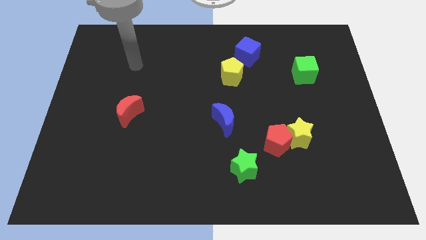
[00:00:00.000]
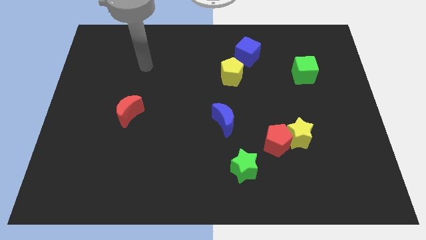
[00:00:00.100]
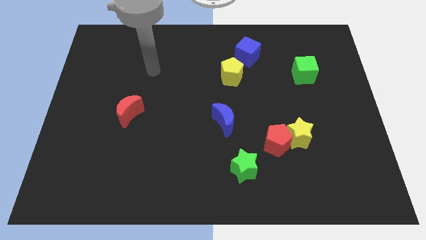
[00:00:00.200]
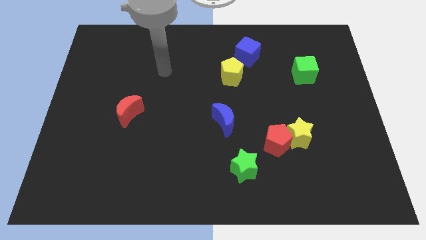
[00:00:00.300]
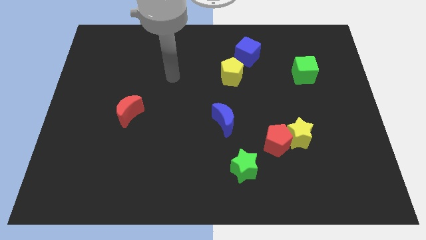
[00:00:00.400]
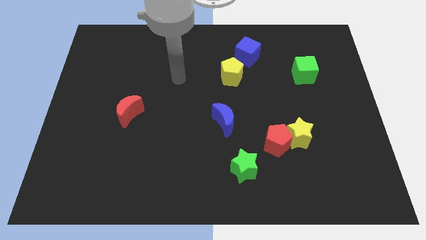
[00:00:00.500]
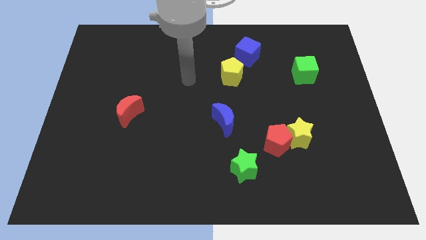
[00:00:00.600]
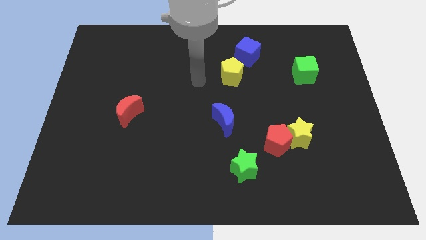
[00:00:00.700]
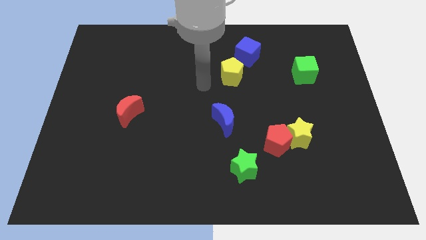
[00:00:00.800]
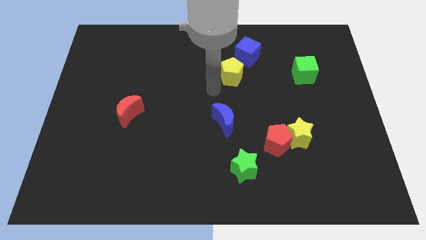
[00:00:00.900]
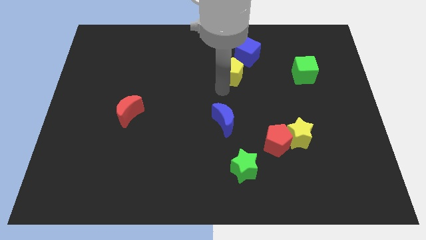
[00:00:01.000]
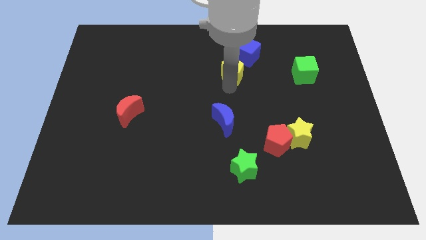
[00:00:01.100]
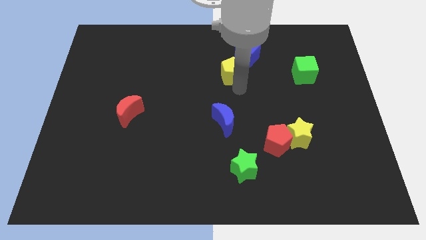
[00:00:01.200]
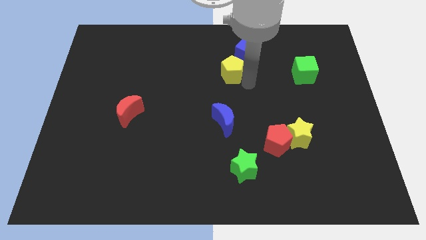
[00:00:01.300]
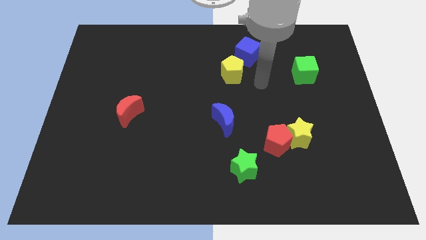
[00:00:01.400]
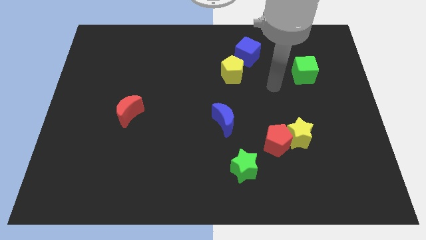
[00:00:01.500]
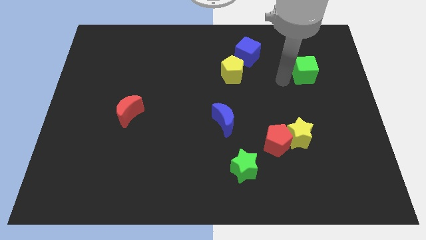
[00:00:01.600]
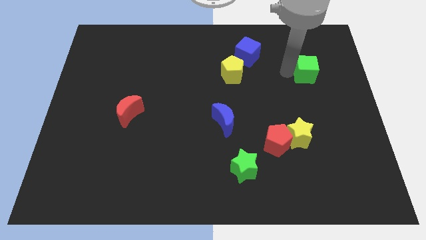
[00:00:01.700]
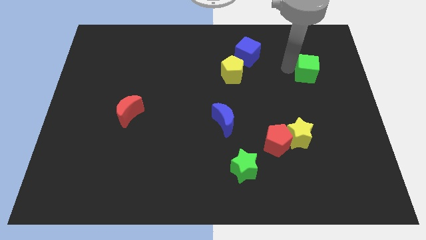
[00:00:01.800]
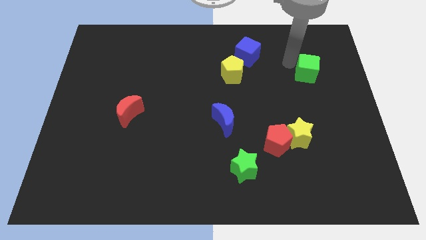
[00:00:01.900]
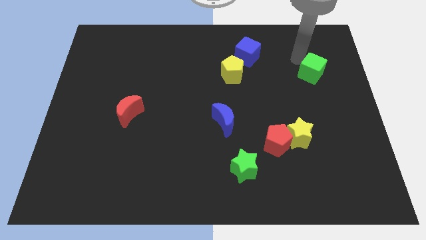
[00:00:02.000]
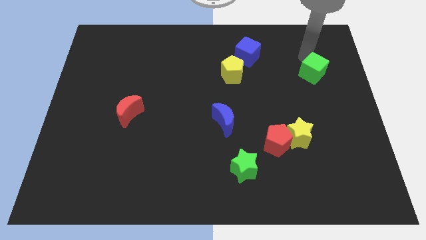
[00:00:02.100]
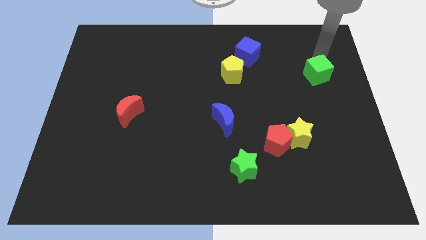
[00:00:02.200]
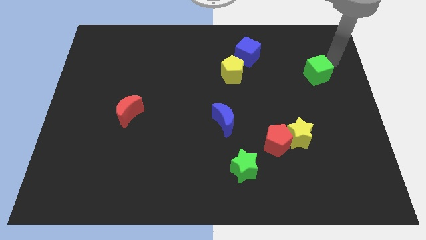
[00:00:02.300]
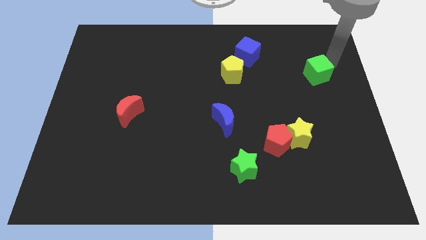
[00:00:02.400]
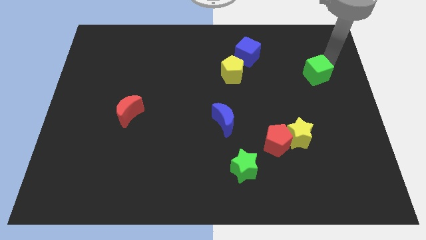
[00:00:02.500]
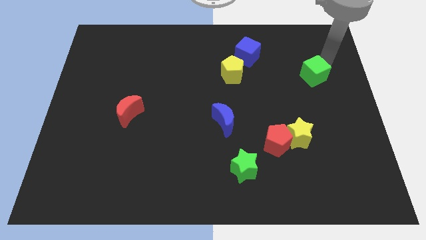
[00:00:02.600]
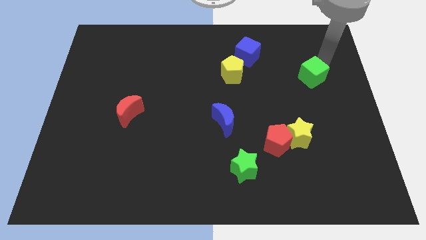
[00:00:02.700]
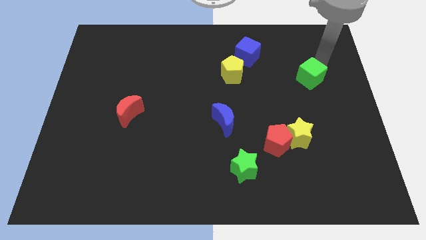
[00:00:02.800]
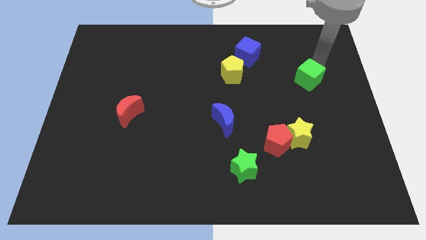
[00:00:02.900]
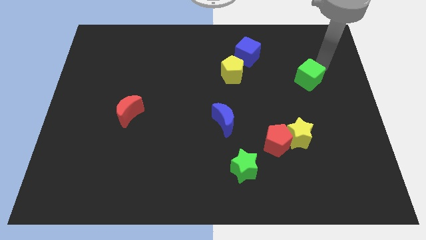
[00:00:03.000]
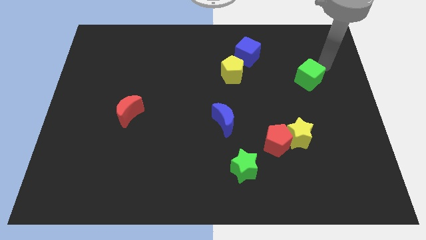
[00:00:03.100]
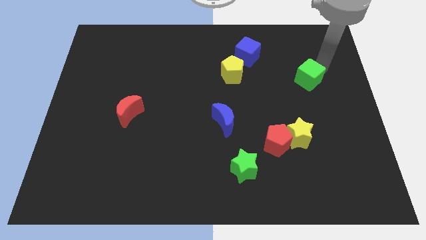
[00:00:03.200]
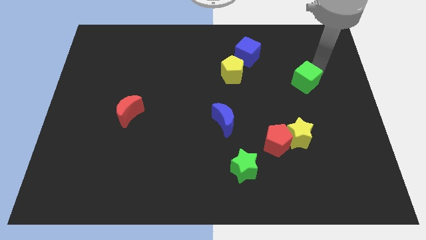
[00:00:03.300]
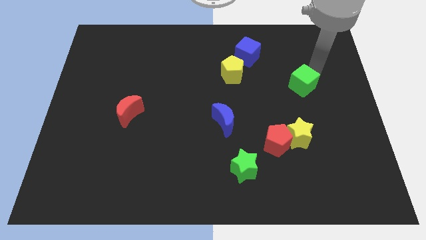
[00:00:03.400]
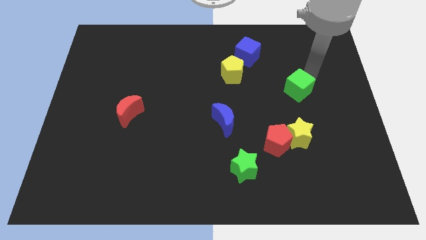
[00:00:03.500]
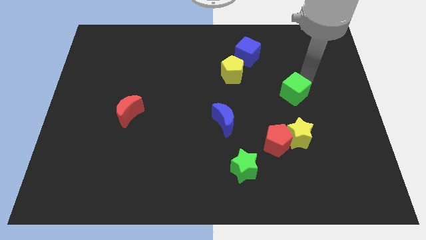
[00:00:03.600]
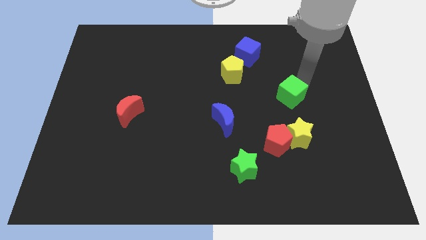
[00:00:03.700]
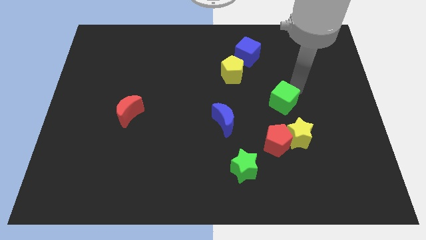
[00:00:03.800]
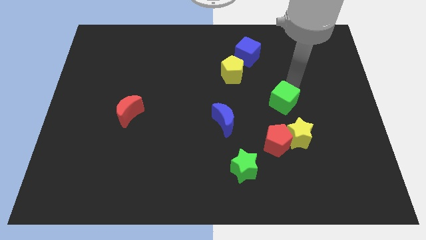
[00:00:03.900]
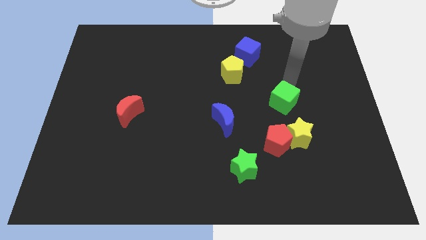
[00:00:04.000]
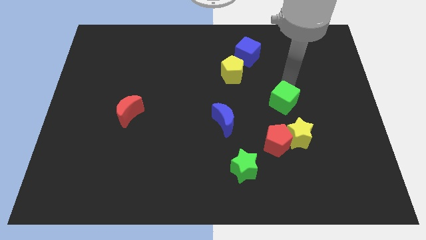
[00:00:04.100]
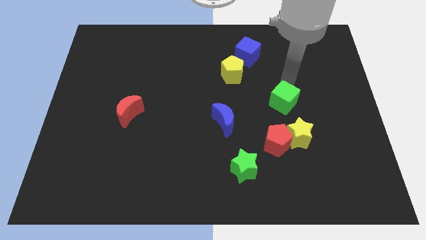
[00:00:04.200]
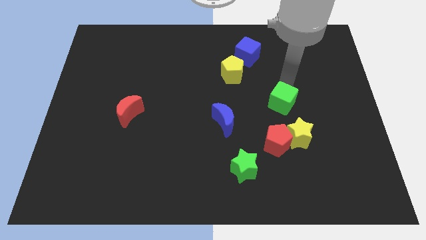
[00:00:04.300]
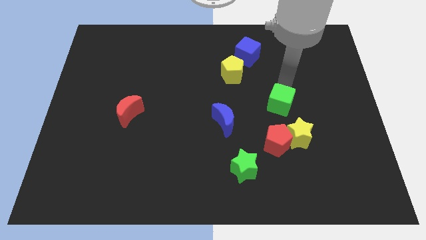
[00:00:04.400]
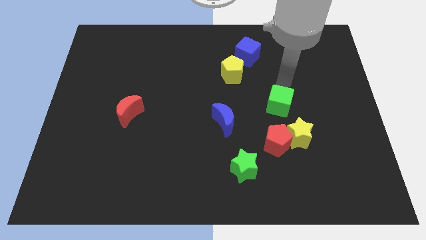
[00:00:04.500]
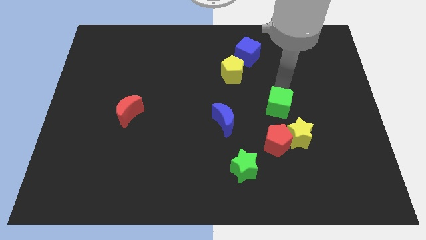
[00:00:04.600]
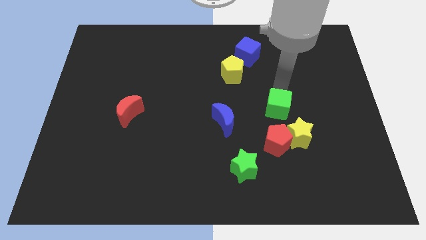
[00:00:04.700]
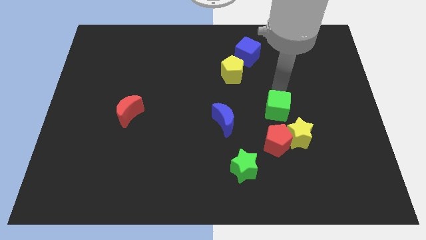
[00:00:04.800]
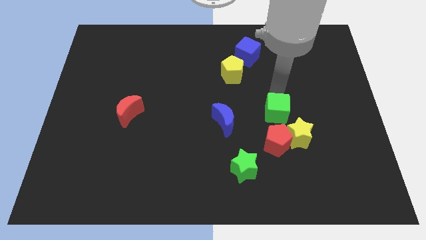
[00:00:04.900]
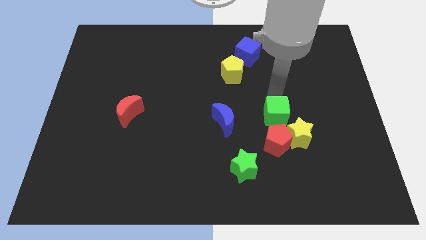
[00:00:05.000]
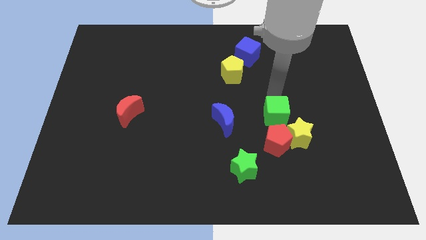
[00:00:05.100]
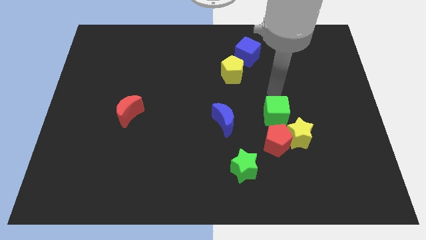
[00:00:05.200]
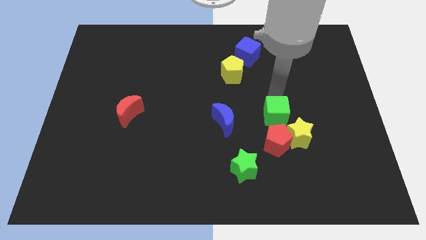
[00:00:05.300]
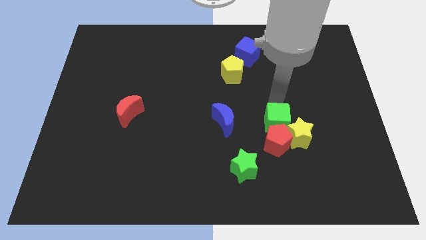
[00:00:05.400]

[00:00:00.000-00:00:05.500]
move the green cube to the red pentagon

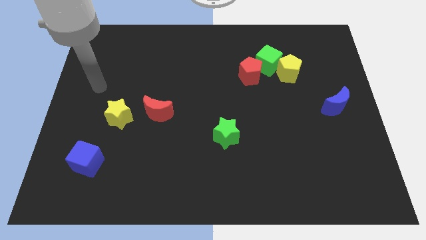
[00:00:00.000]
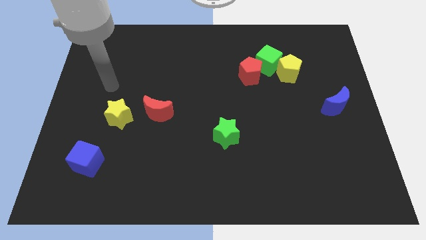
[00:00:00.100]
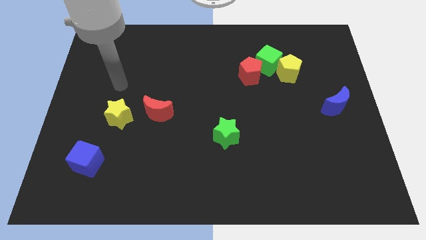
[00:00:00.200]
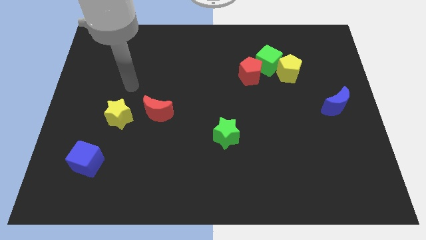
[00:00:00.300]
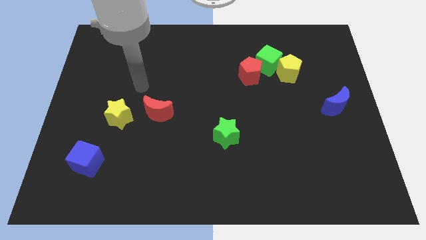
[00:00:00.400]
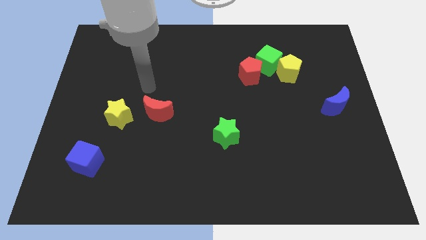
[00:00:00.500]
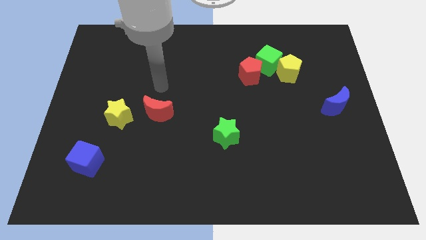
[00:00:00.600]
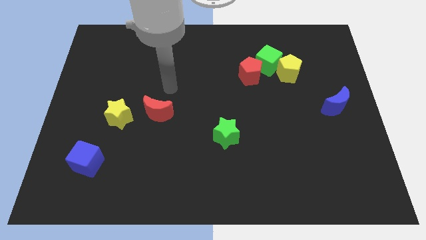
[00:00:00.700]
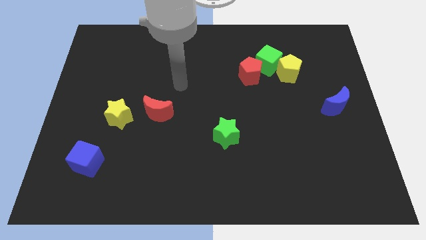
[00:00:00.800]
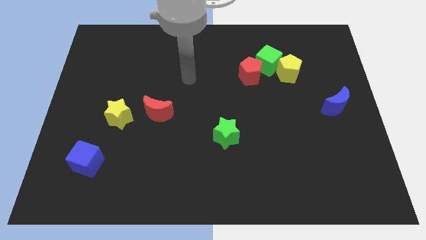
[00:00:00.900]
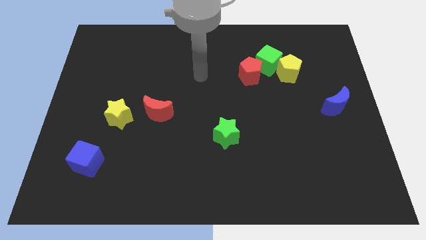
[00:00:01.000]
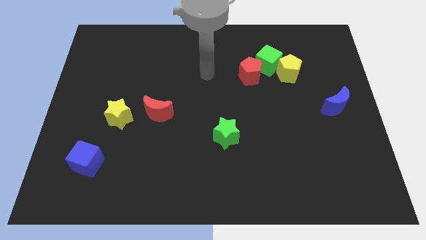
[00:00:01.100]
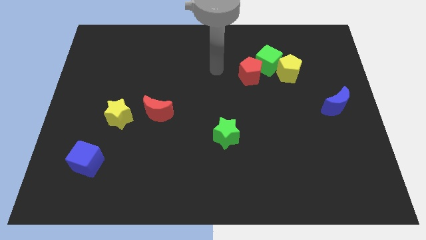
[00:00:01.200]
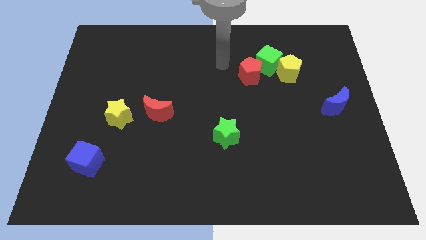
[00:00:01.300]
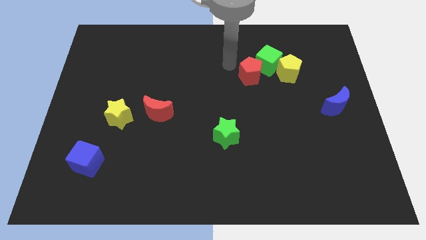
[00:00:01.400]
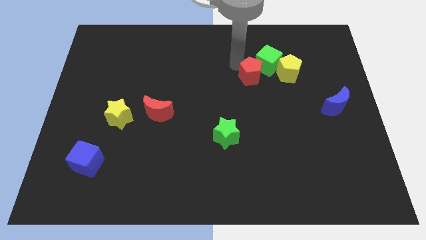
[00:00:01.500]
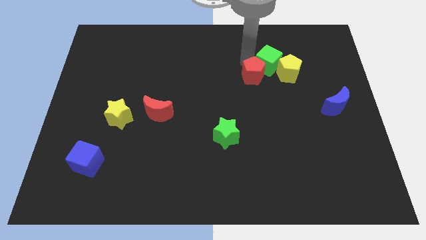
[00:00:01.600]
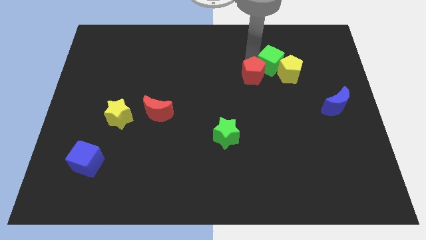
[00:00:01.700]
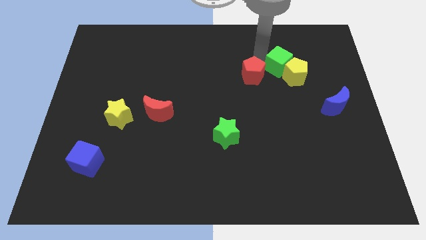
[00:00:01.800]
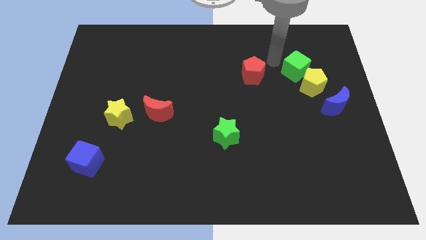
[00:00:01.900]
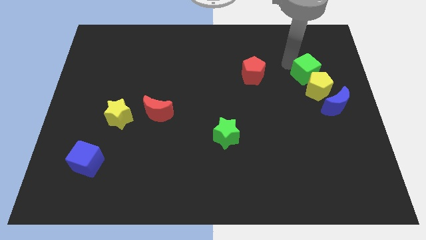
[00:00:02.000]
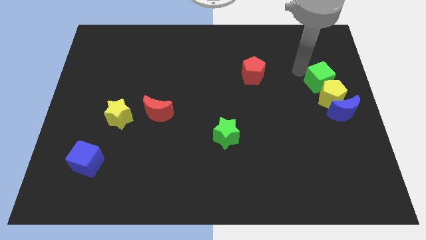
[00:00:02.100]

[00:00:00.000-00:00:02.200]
move the yellow pentagon close to the blue moon
